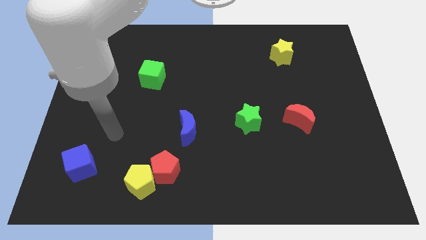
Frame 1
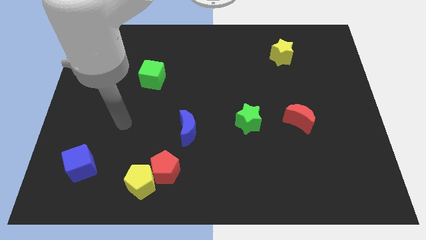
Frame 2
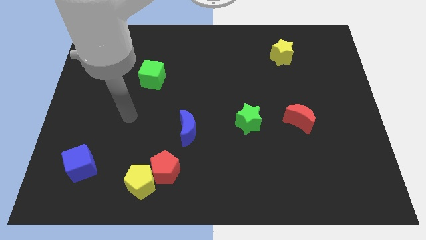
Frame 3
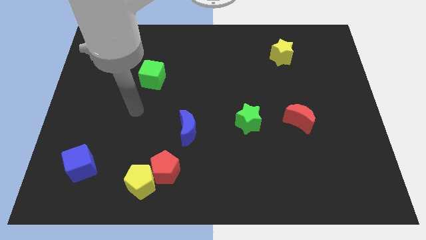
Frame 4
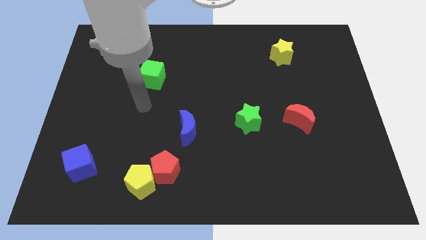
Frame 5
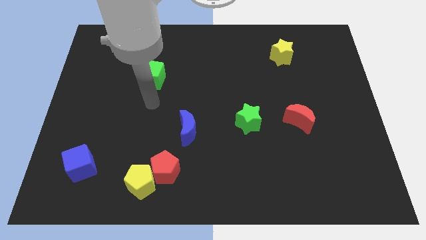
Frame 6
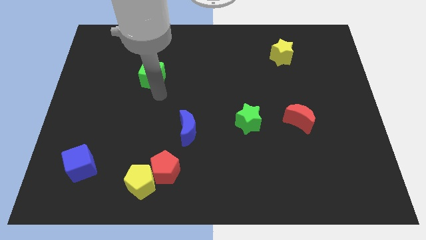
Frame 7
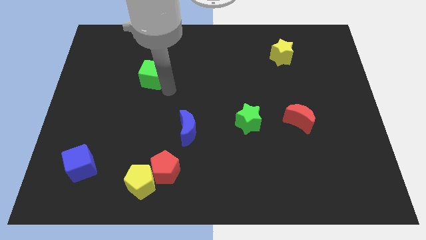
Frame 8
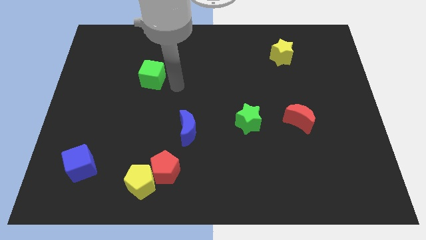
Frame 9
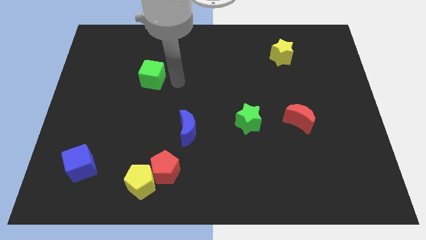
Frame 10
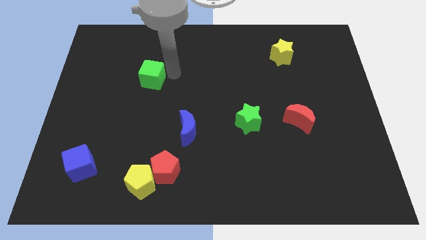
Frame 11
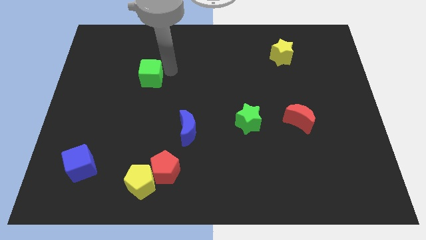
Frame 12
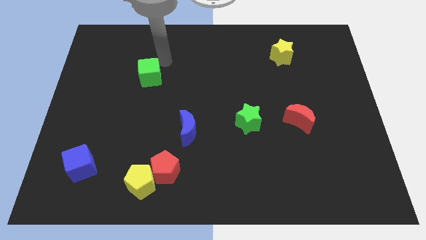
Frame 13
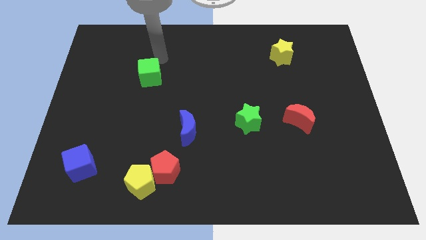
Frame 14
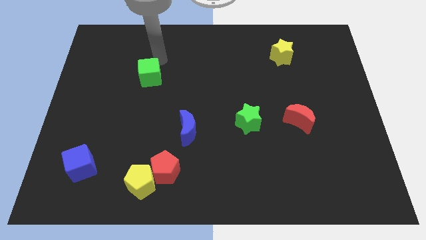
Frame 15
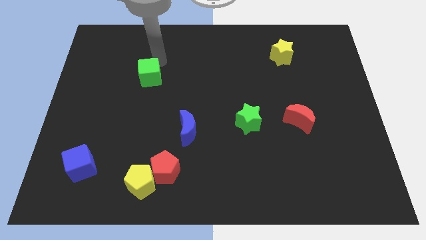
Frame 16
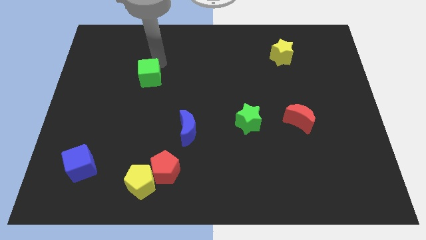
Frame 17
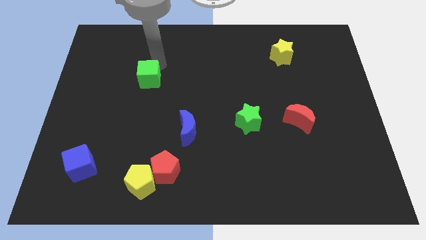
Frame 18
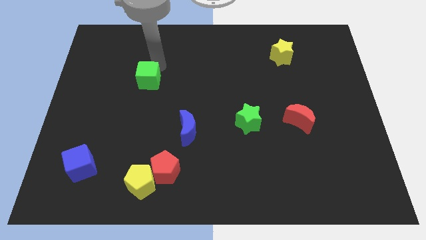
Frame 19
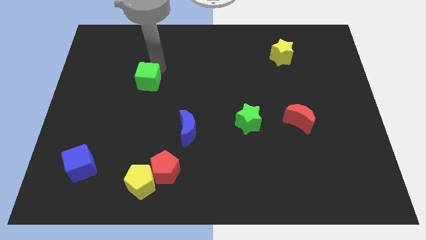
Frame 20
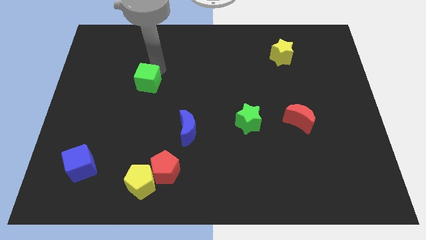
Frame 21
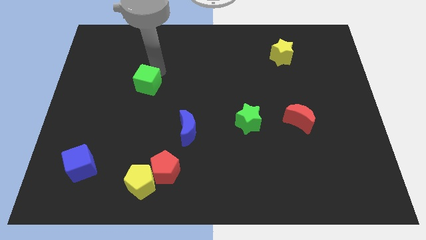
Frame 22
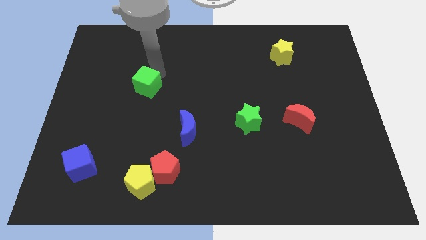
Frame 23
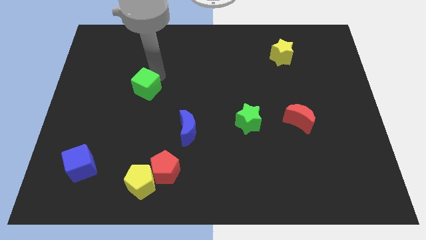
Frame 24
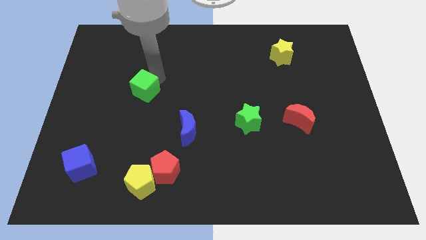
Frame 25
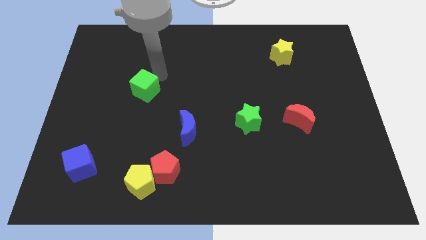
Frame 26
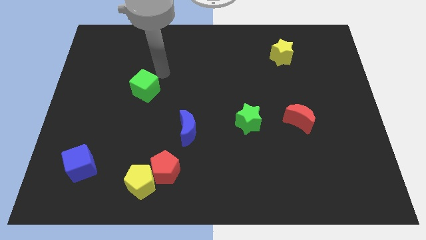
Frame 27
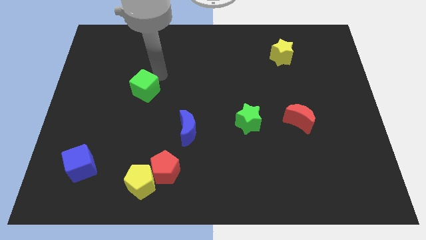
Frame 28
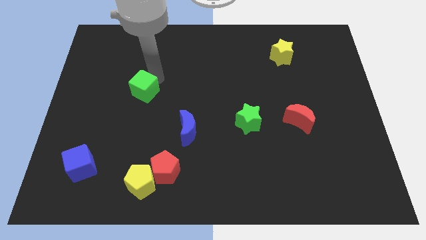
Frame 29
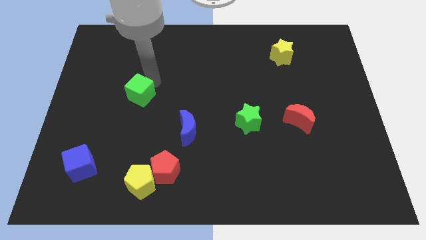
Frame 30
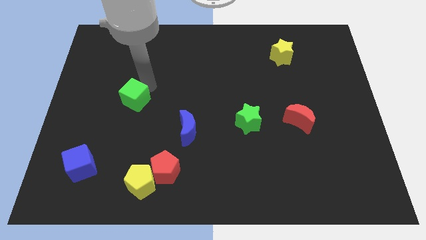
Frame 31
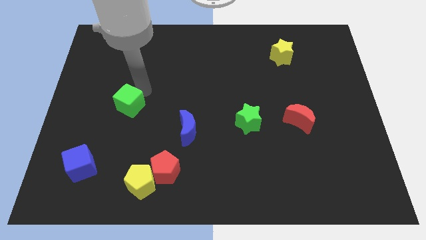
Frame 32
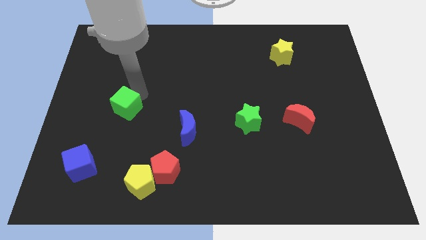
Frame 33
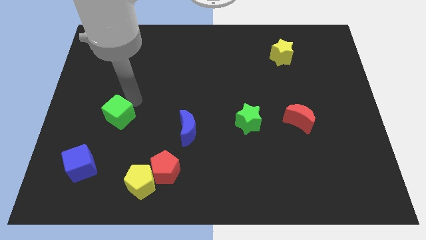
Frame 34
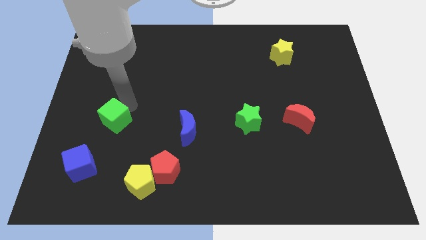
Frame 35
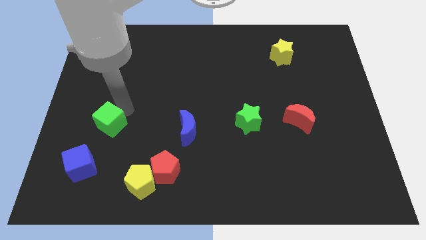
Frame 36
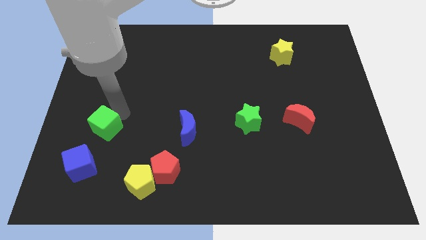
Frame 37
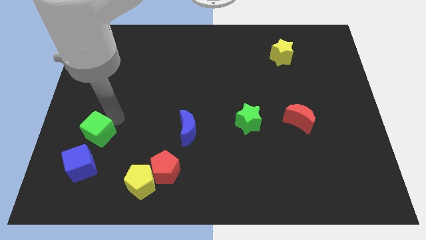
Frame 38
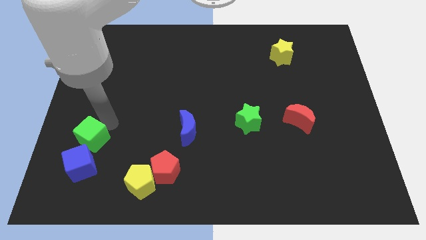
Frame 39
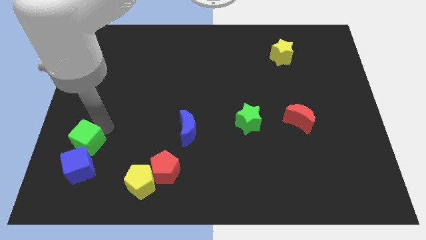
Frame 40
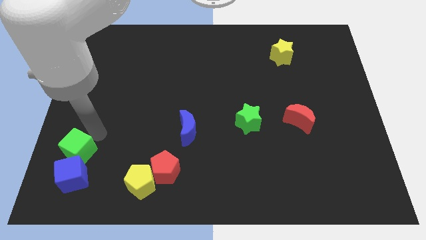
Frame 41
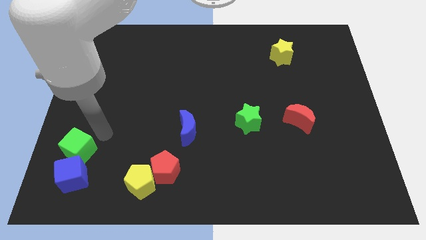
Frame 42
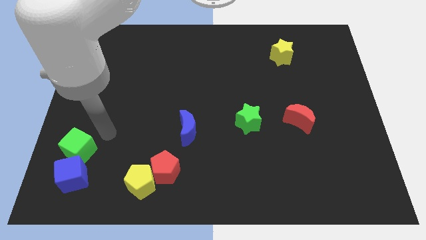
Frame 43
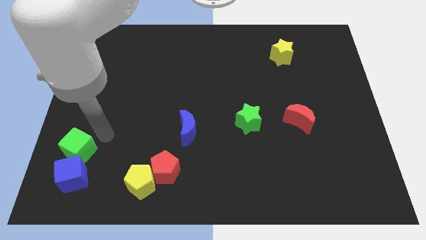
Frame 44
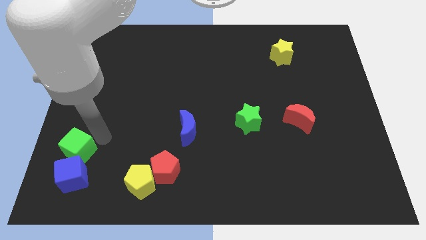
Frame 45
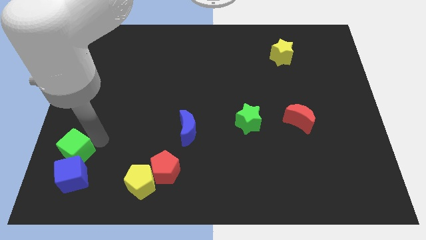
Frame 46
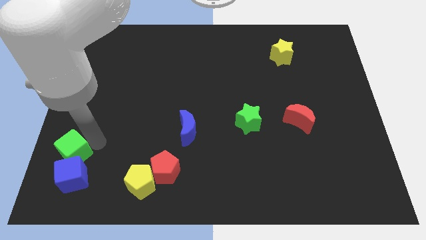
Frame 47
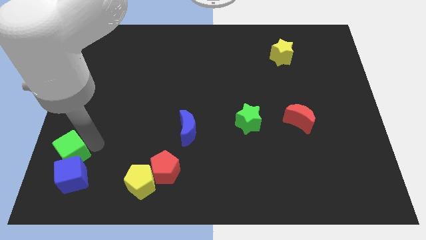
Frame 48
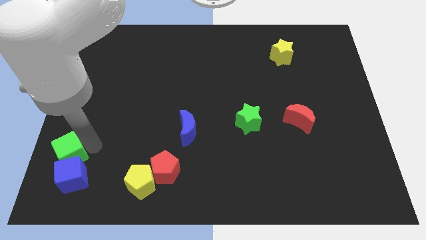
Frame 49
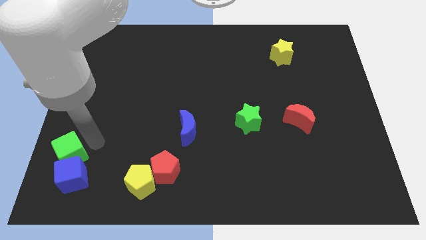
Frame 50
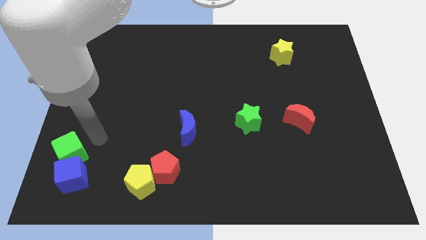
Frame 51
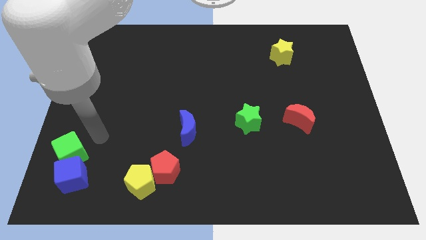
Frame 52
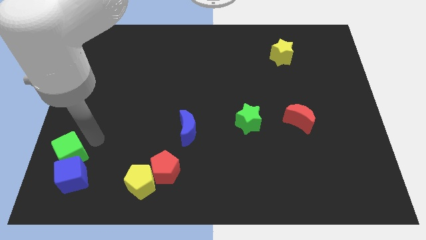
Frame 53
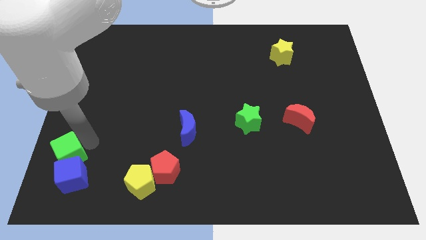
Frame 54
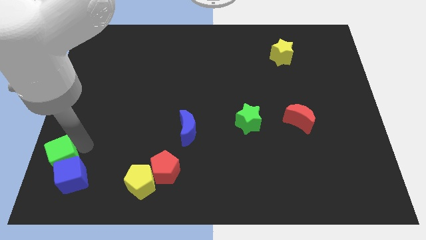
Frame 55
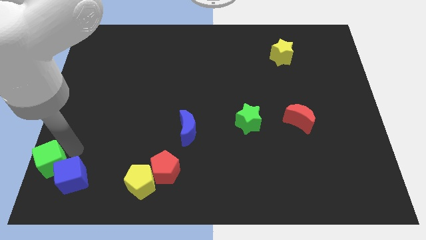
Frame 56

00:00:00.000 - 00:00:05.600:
slide the green cube to the bottom left

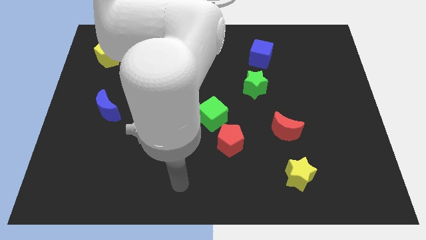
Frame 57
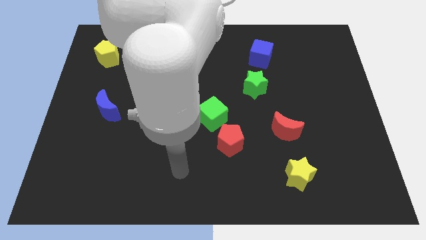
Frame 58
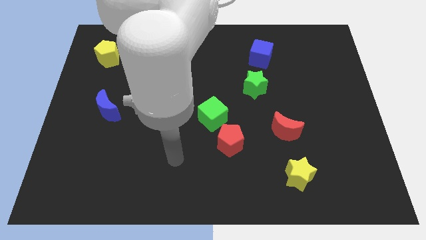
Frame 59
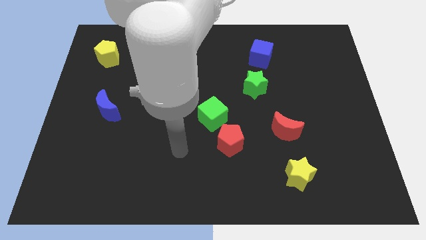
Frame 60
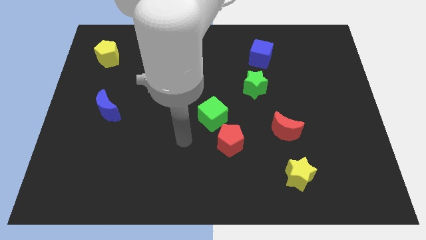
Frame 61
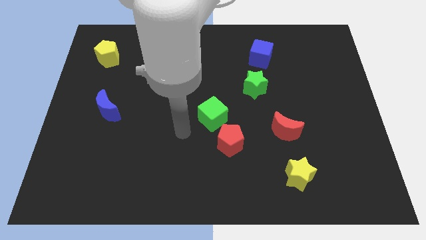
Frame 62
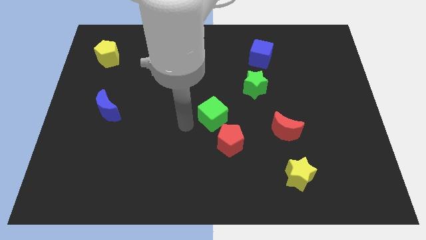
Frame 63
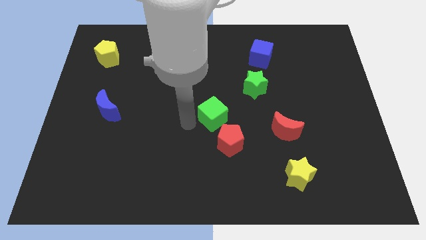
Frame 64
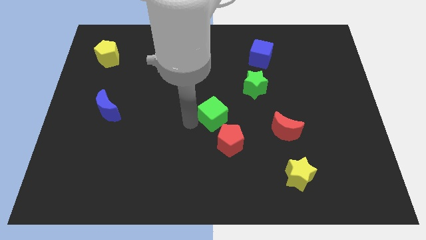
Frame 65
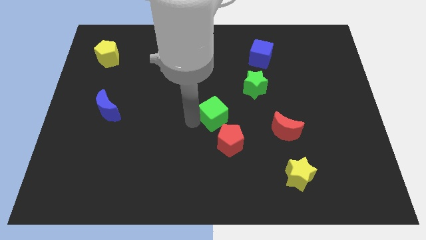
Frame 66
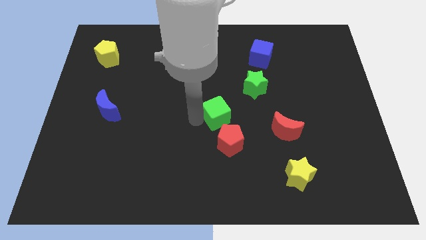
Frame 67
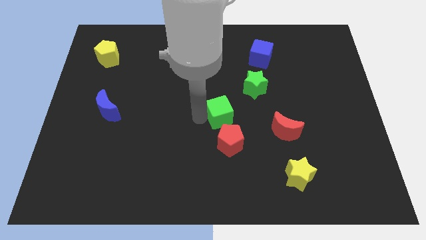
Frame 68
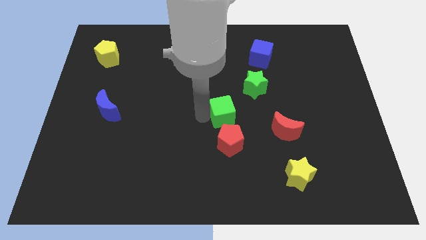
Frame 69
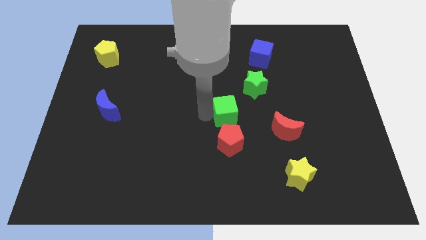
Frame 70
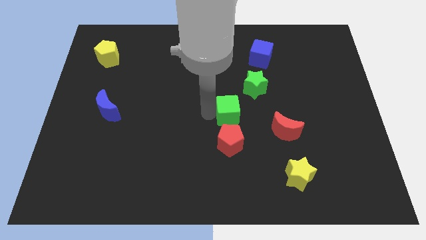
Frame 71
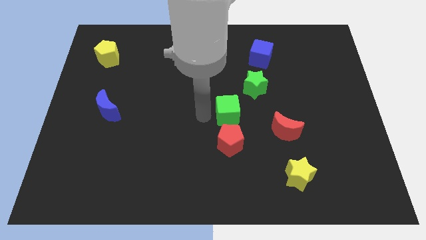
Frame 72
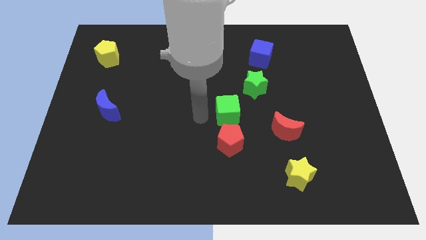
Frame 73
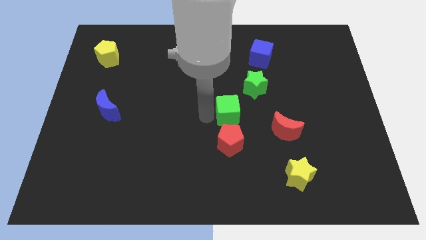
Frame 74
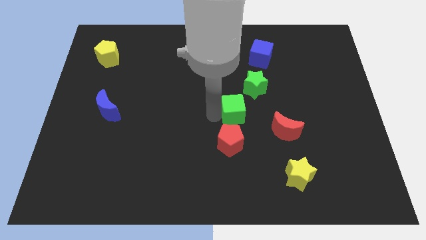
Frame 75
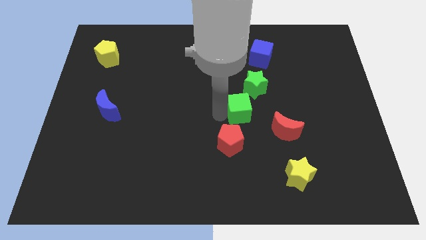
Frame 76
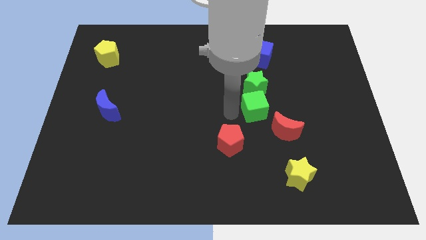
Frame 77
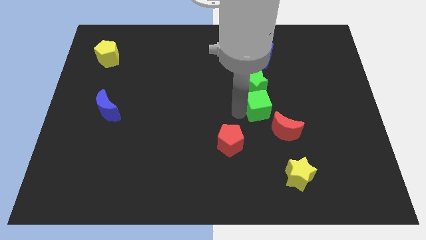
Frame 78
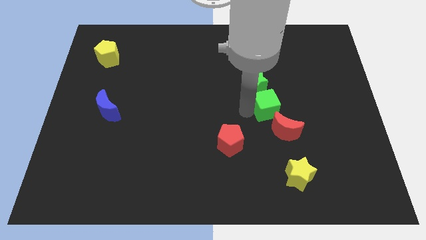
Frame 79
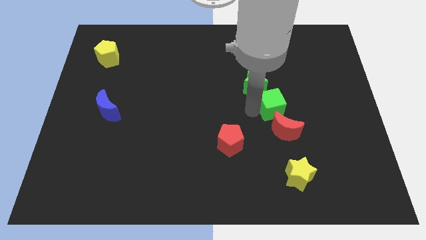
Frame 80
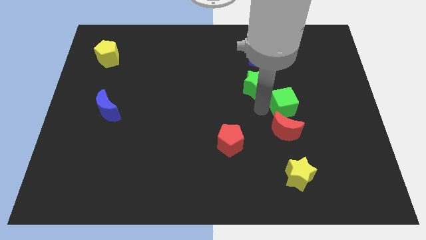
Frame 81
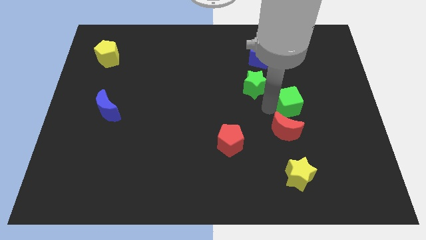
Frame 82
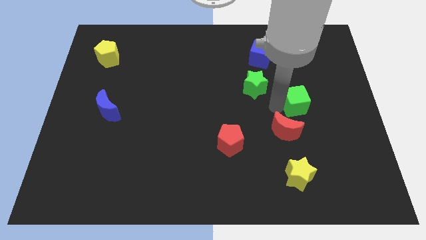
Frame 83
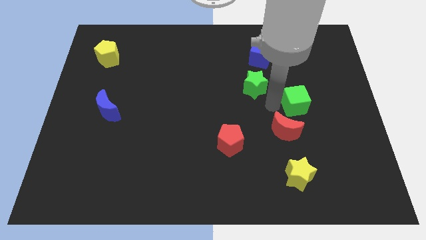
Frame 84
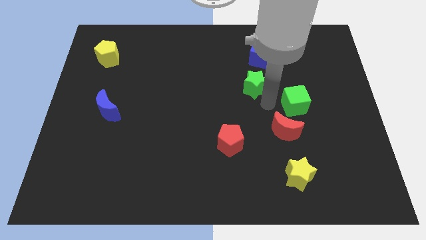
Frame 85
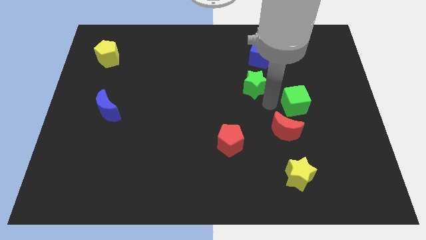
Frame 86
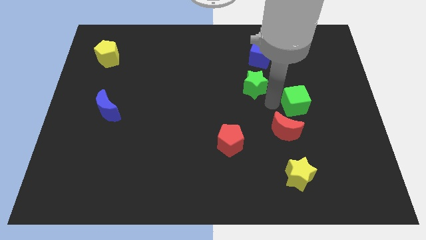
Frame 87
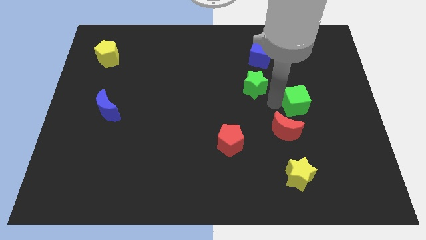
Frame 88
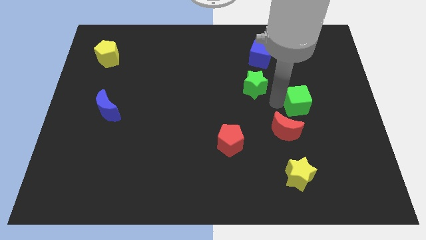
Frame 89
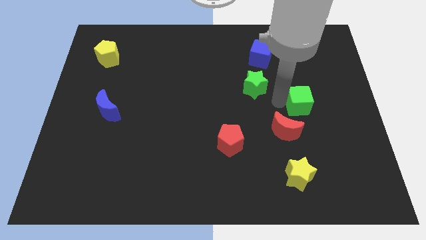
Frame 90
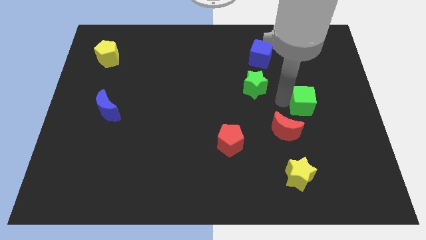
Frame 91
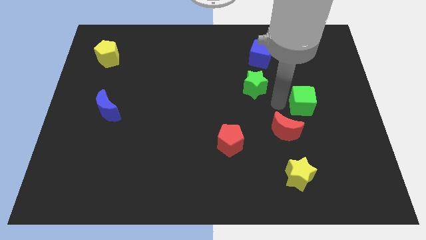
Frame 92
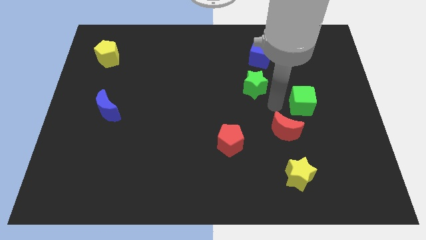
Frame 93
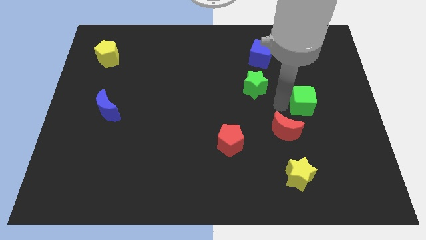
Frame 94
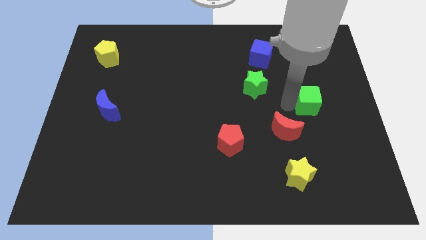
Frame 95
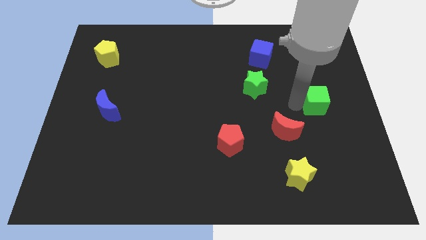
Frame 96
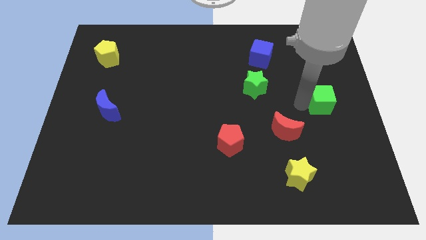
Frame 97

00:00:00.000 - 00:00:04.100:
put the green cube to the right side
